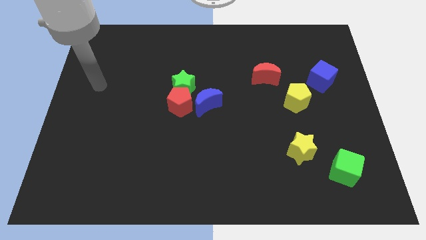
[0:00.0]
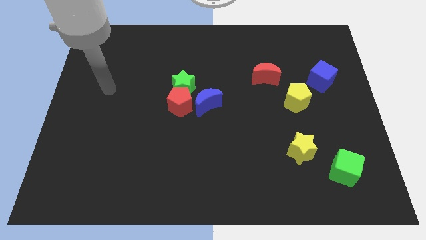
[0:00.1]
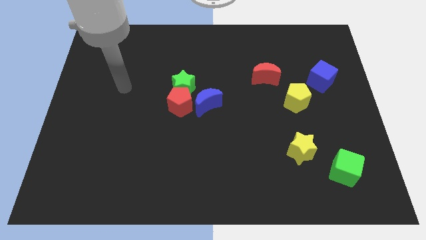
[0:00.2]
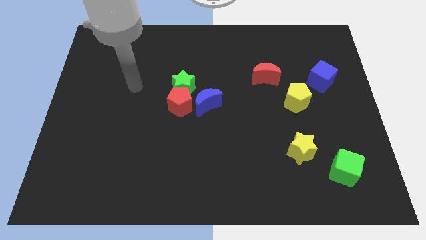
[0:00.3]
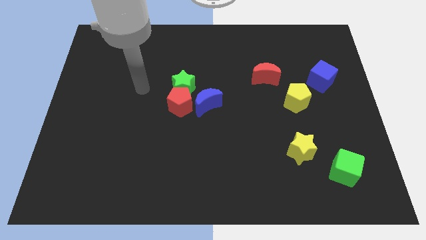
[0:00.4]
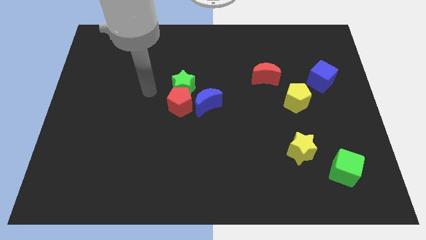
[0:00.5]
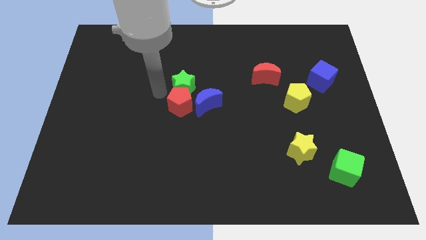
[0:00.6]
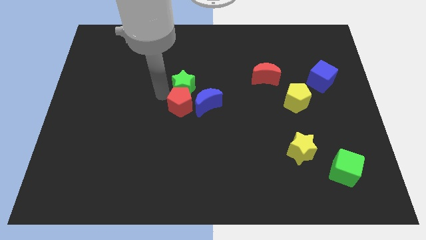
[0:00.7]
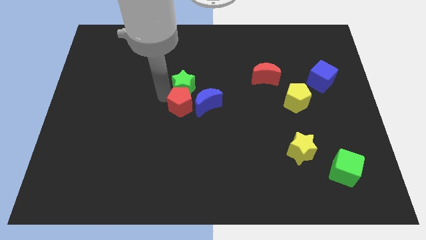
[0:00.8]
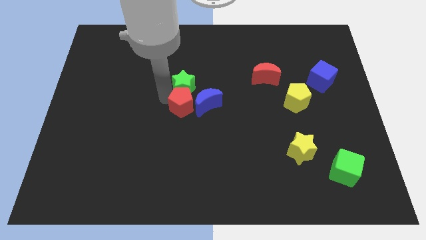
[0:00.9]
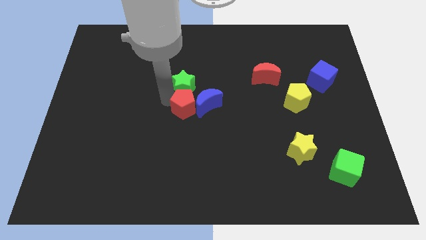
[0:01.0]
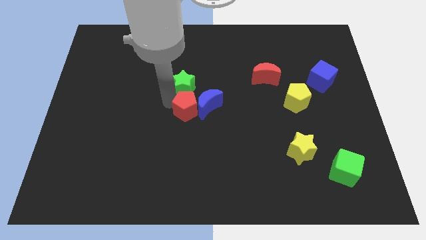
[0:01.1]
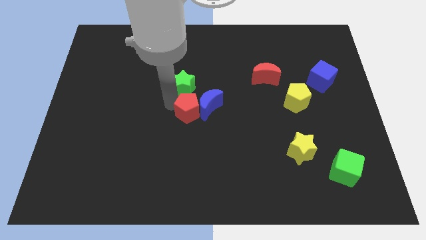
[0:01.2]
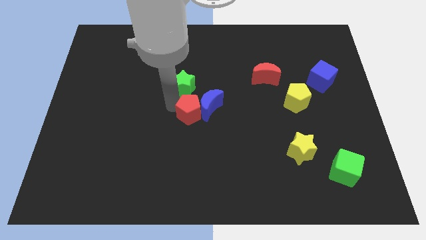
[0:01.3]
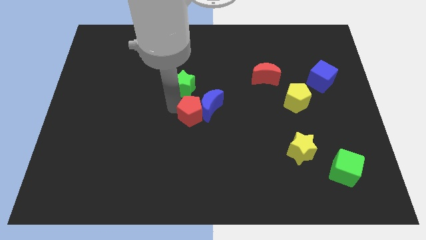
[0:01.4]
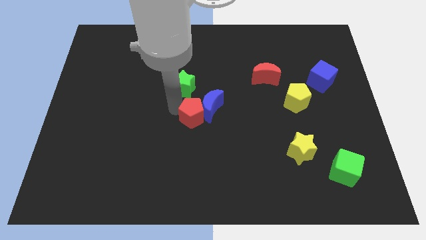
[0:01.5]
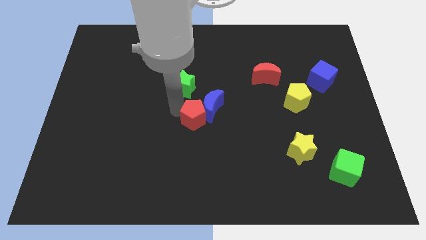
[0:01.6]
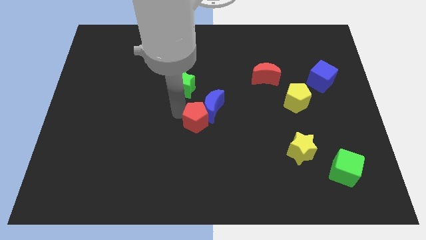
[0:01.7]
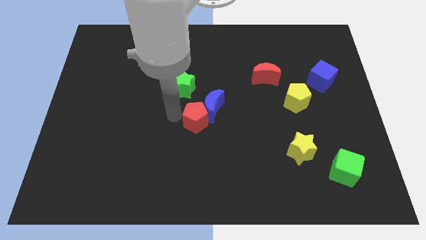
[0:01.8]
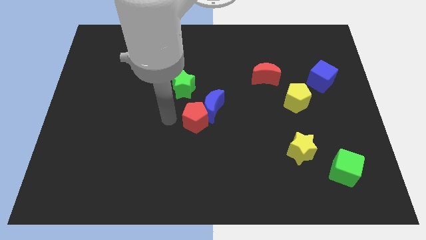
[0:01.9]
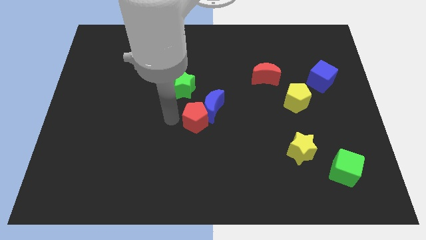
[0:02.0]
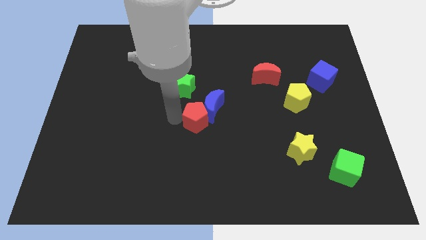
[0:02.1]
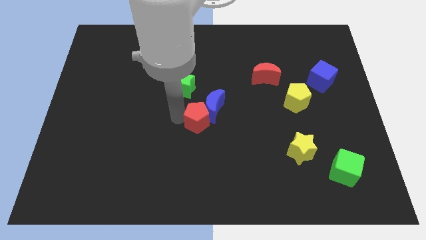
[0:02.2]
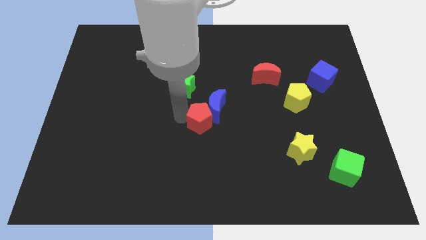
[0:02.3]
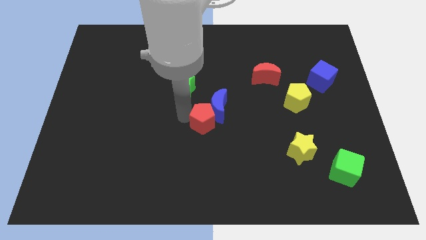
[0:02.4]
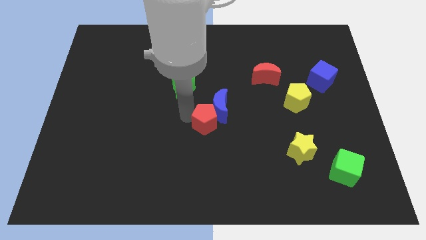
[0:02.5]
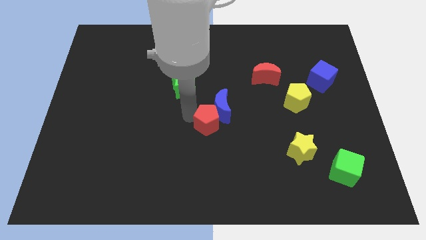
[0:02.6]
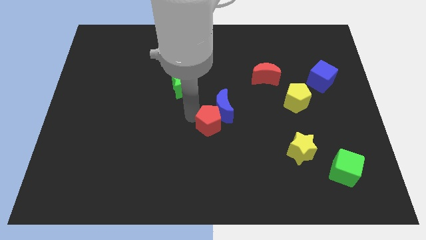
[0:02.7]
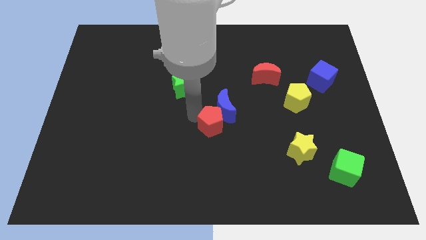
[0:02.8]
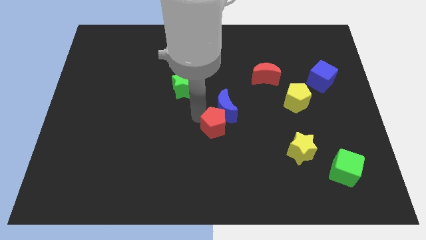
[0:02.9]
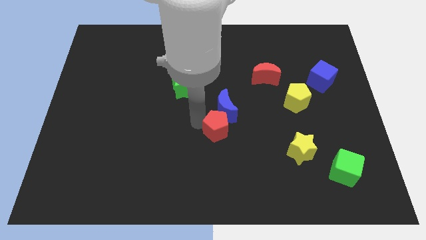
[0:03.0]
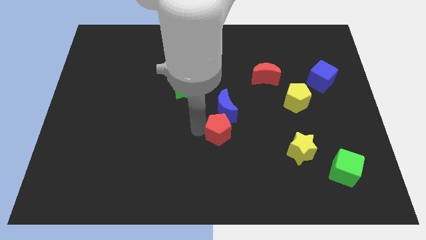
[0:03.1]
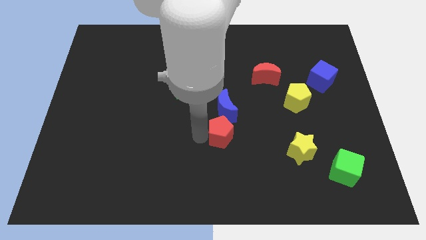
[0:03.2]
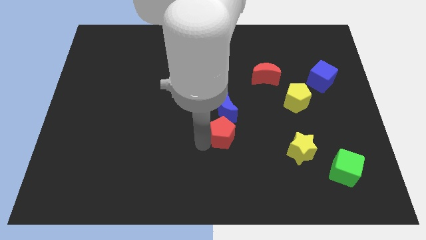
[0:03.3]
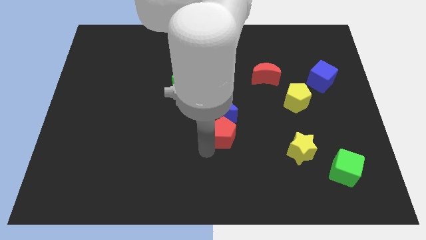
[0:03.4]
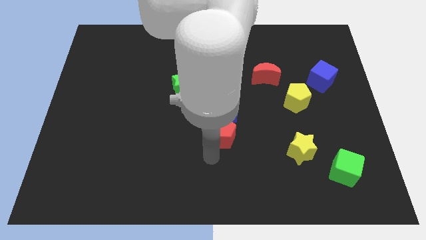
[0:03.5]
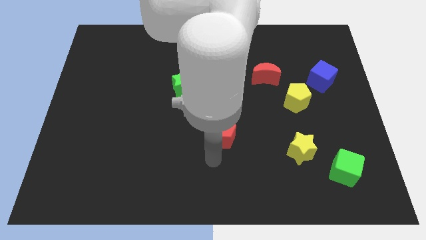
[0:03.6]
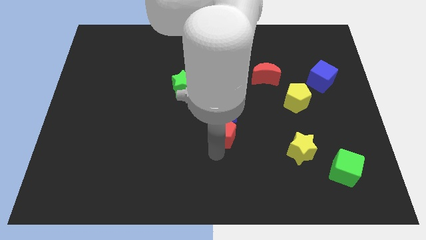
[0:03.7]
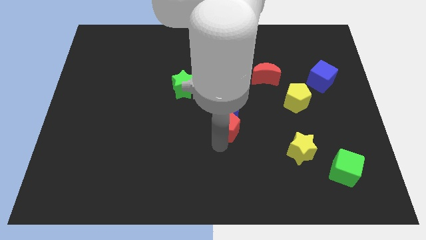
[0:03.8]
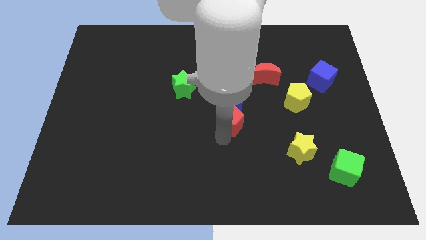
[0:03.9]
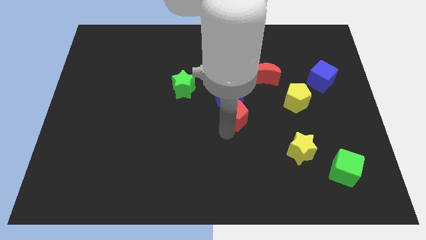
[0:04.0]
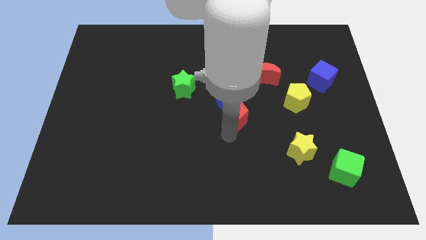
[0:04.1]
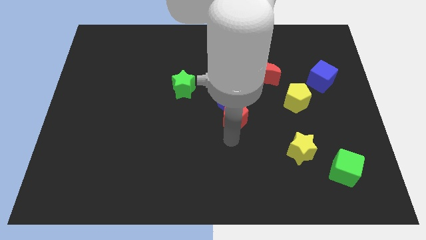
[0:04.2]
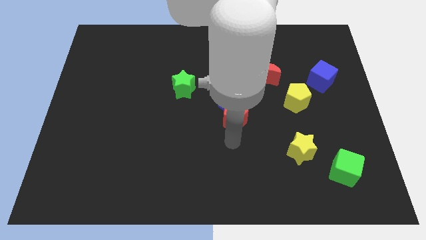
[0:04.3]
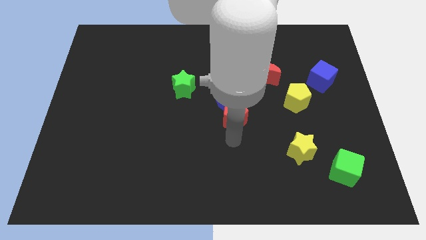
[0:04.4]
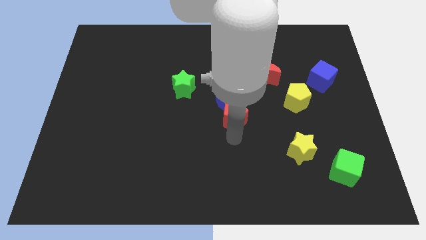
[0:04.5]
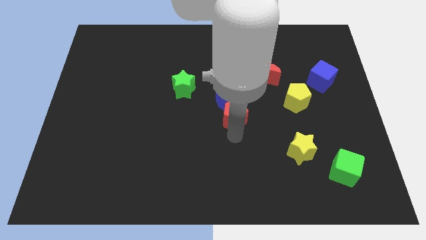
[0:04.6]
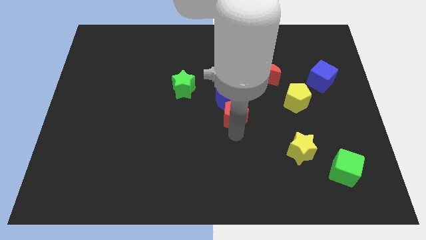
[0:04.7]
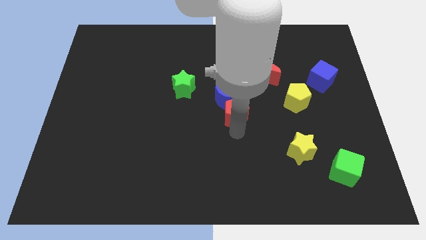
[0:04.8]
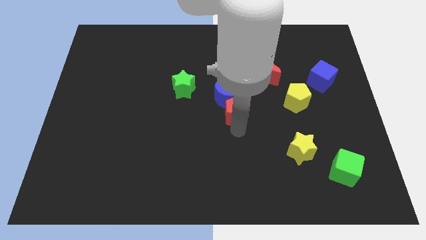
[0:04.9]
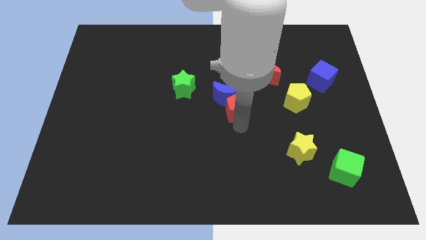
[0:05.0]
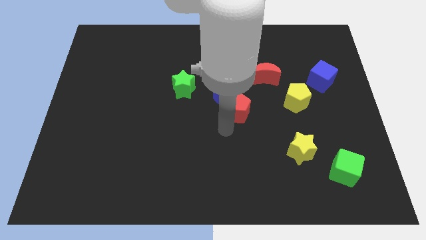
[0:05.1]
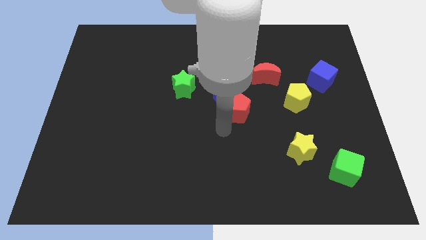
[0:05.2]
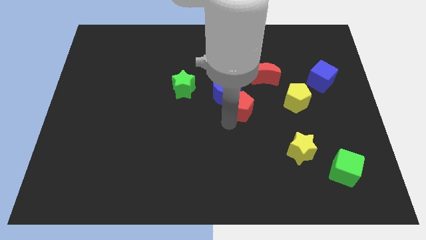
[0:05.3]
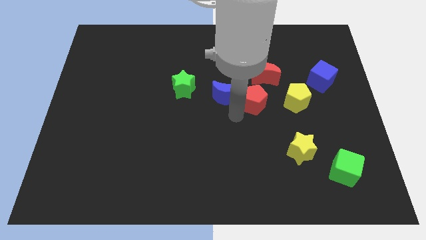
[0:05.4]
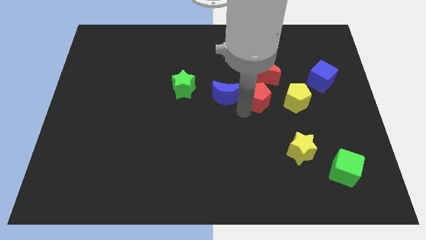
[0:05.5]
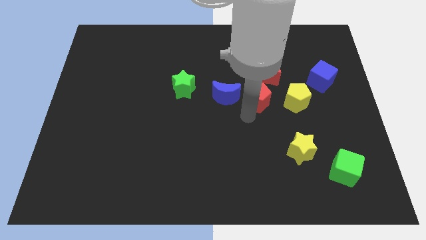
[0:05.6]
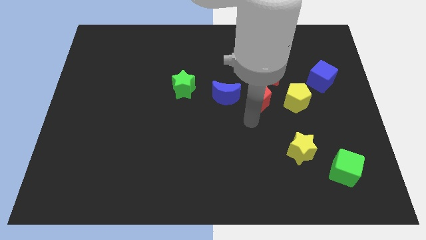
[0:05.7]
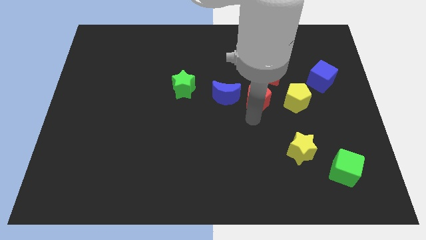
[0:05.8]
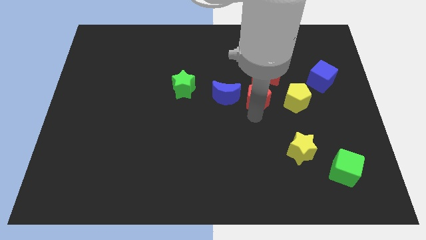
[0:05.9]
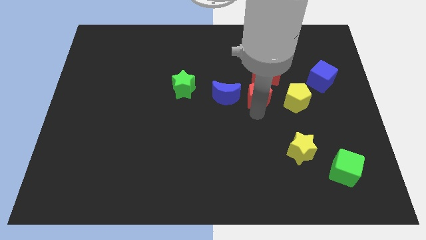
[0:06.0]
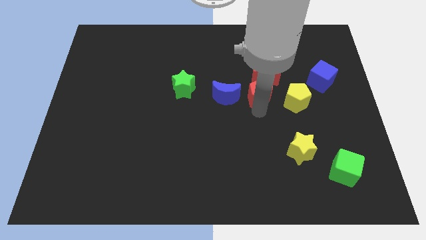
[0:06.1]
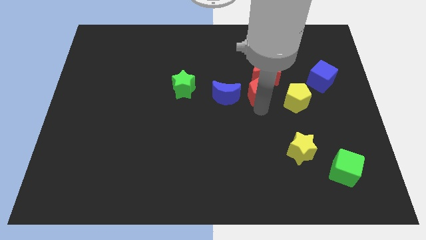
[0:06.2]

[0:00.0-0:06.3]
move the red pentagon to the red moon
